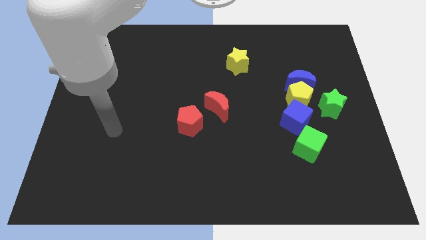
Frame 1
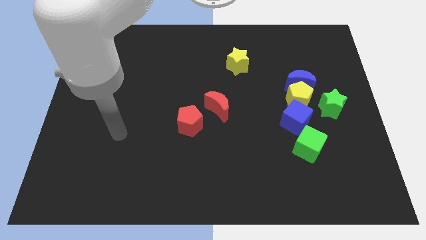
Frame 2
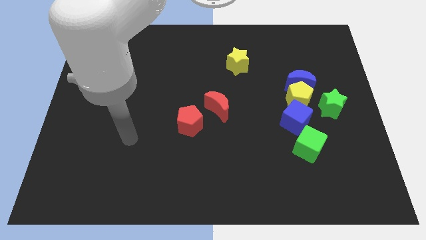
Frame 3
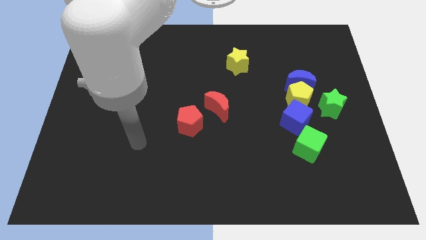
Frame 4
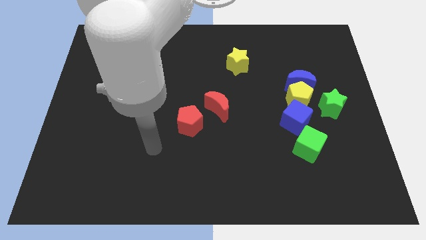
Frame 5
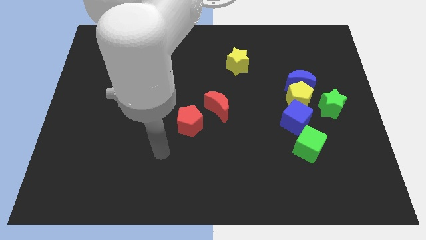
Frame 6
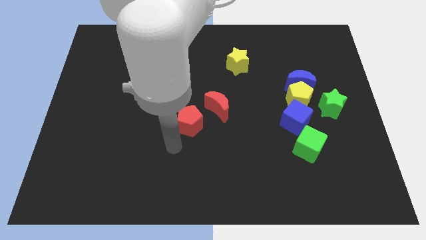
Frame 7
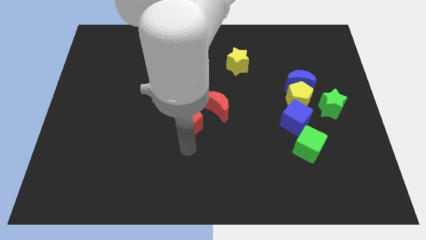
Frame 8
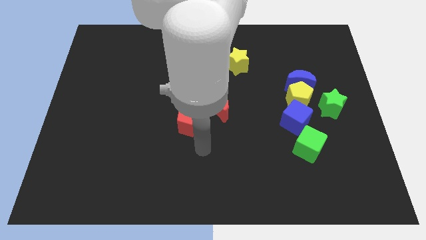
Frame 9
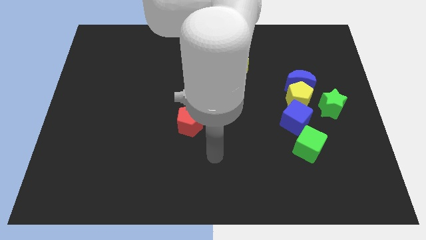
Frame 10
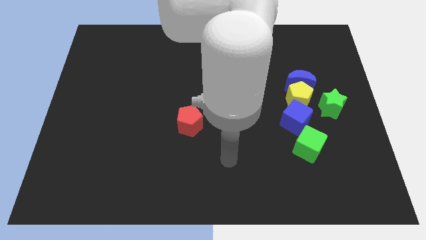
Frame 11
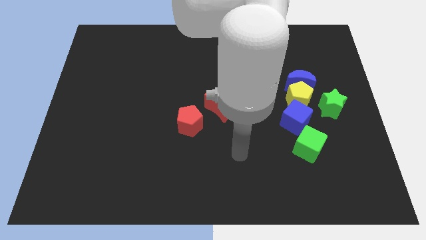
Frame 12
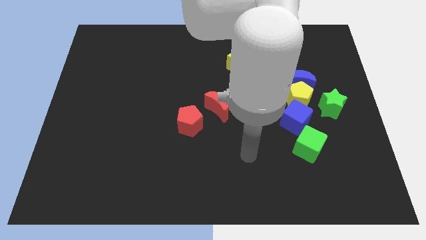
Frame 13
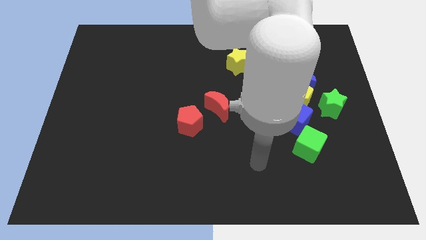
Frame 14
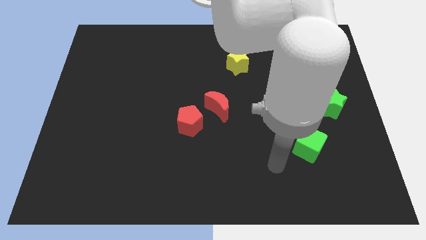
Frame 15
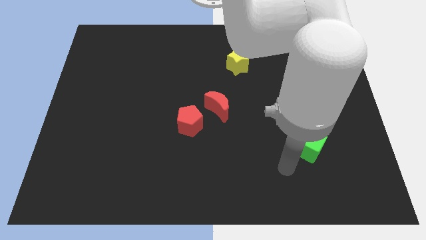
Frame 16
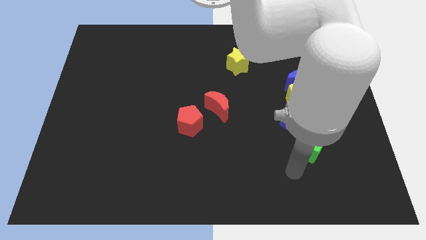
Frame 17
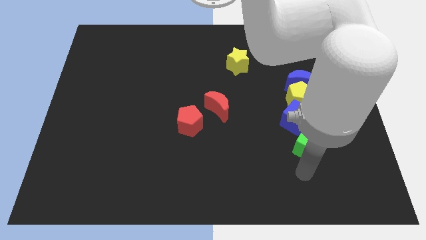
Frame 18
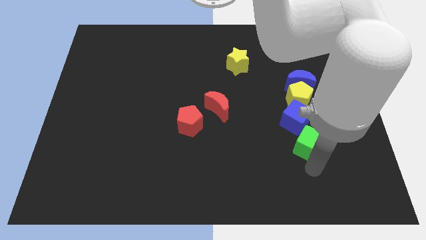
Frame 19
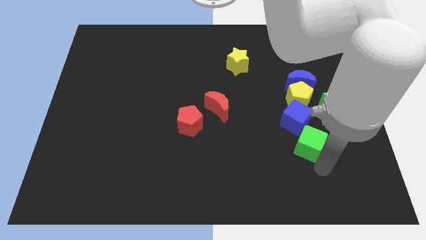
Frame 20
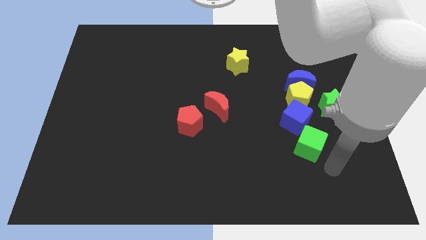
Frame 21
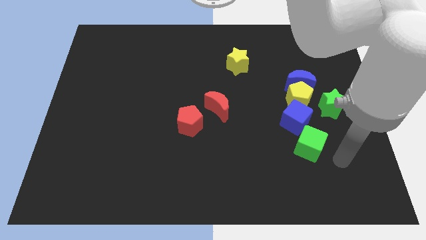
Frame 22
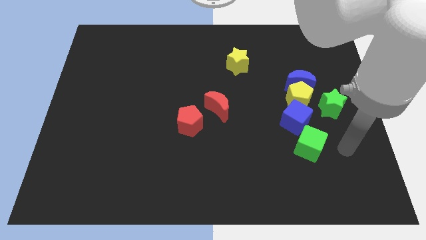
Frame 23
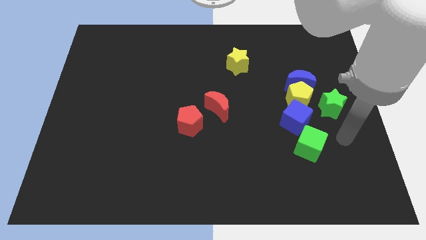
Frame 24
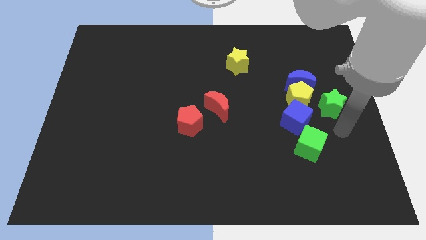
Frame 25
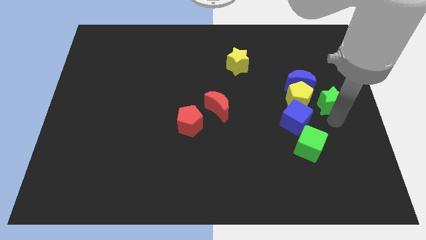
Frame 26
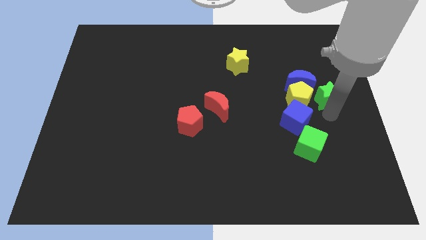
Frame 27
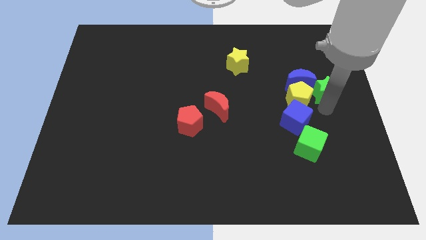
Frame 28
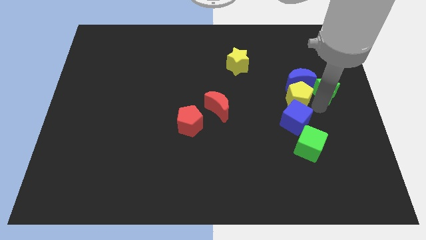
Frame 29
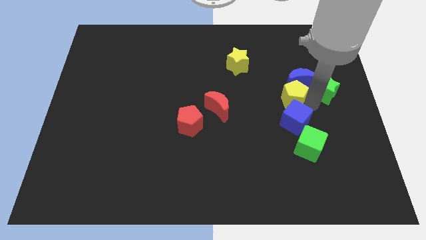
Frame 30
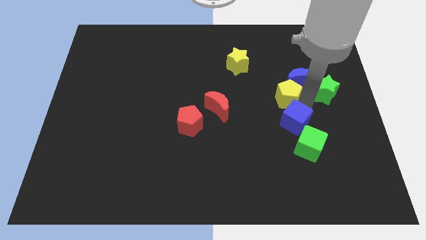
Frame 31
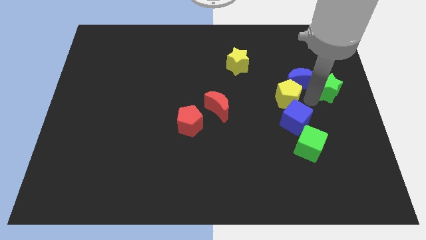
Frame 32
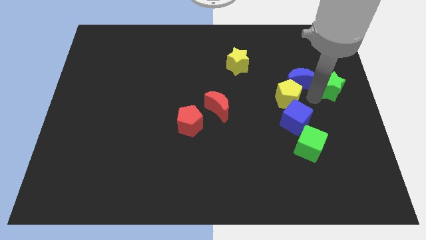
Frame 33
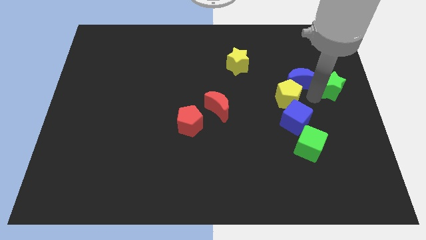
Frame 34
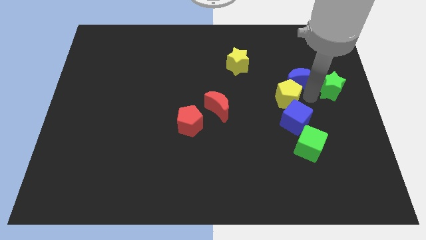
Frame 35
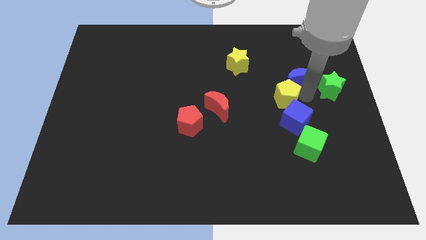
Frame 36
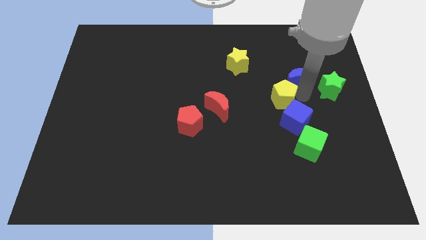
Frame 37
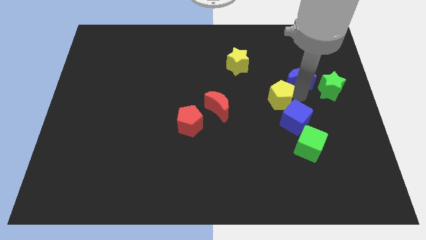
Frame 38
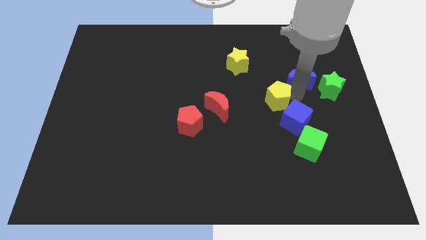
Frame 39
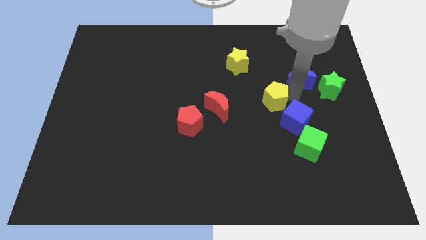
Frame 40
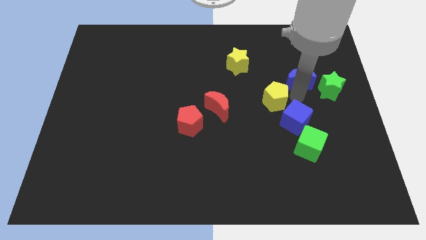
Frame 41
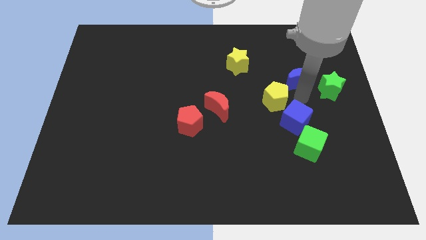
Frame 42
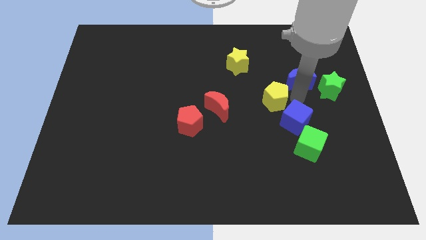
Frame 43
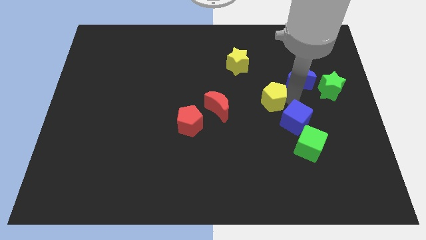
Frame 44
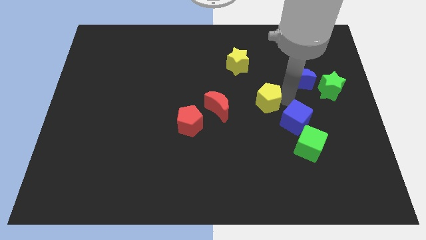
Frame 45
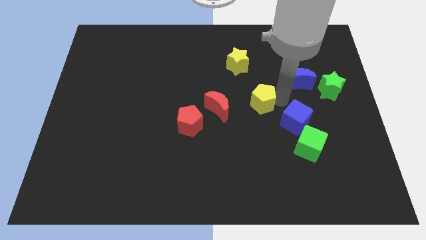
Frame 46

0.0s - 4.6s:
separate the yellow pentagon from the clump

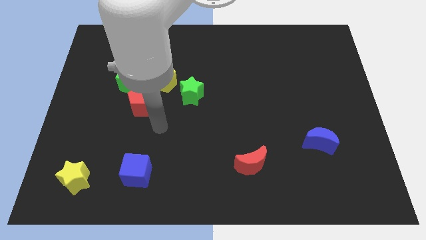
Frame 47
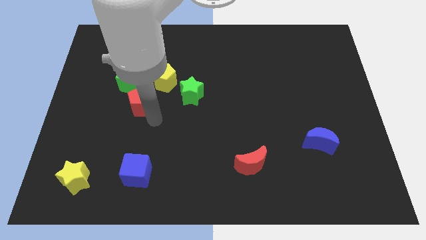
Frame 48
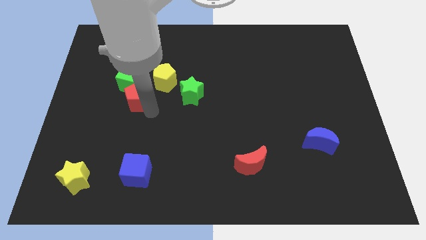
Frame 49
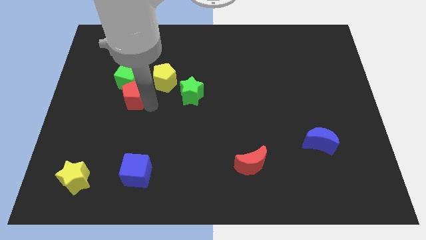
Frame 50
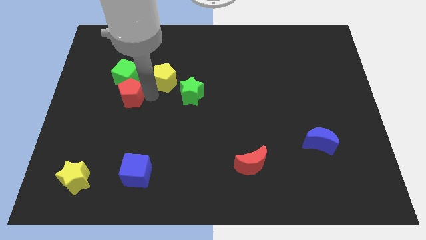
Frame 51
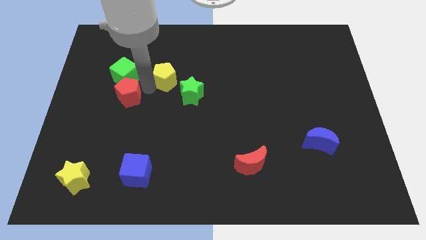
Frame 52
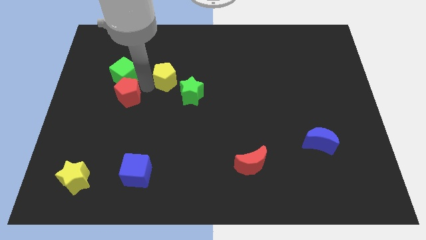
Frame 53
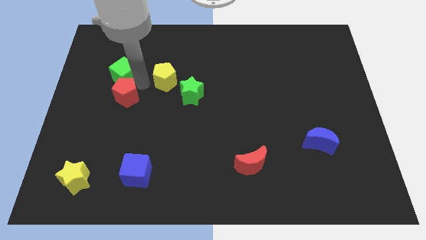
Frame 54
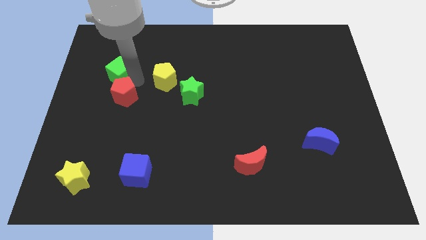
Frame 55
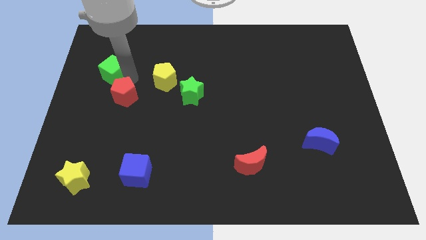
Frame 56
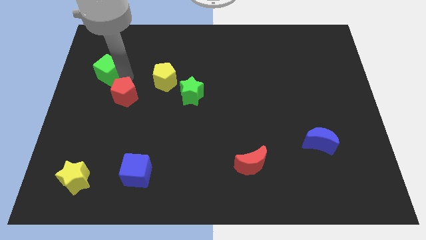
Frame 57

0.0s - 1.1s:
move the green cube away from the red pentagon and yellow pentagon

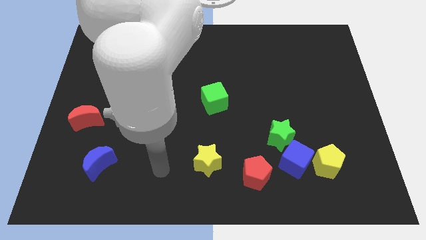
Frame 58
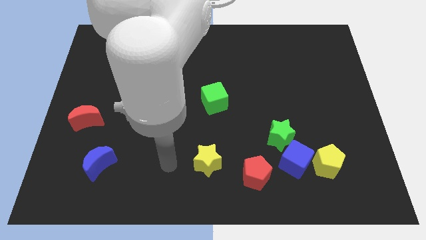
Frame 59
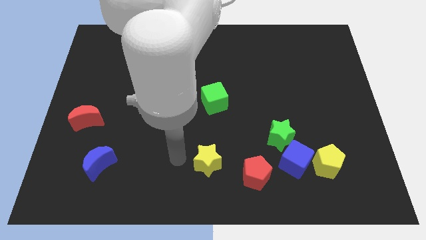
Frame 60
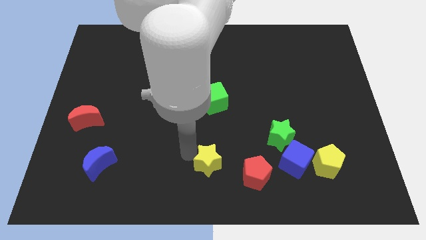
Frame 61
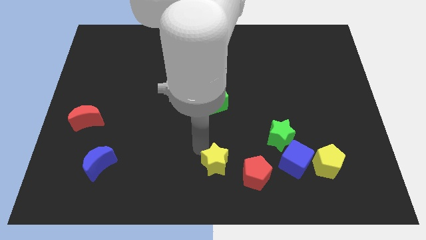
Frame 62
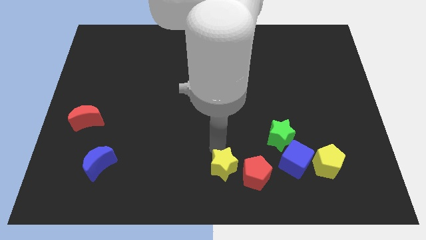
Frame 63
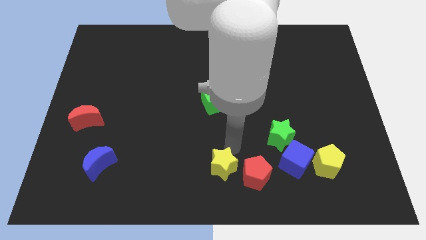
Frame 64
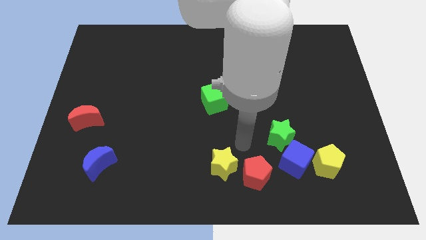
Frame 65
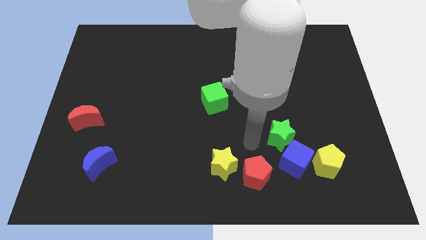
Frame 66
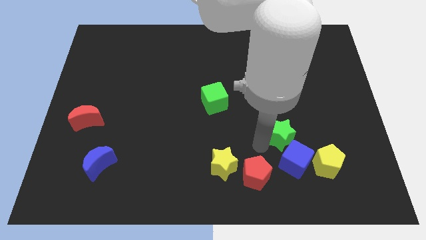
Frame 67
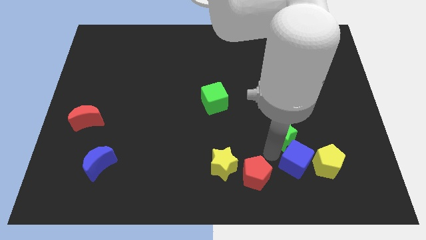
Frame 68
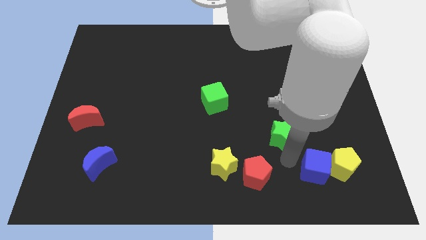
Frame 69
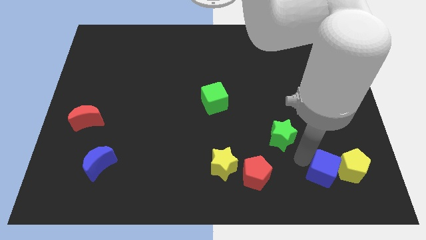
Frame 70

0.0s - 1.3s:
move the green star away from the blue cube

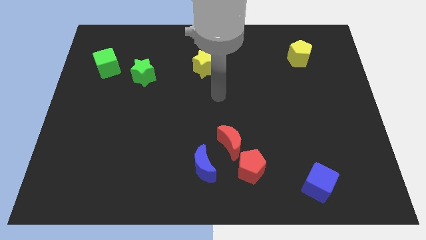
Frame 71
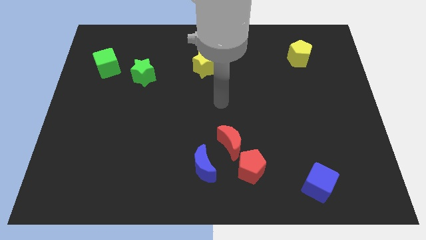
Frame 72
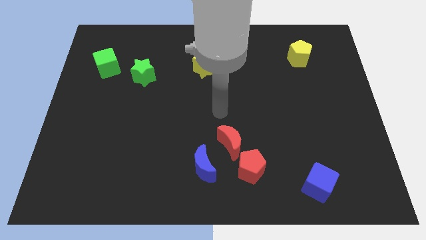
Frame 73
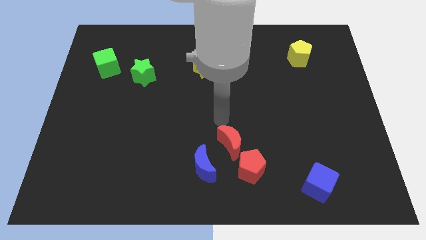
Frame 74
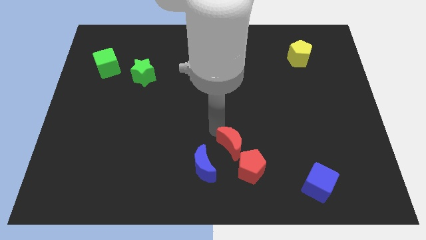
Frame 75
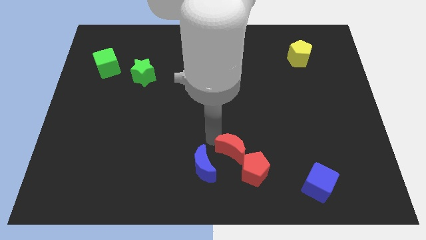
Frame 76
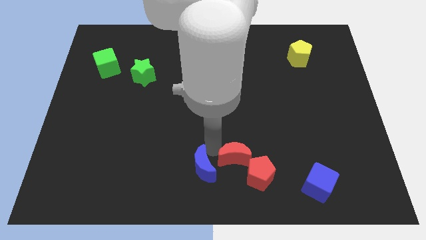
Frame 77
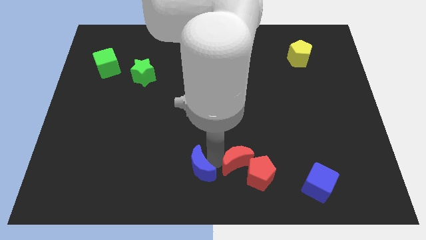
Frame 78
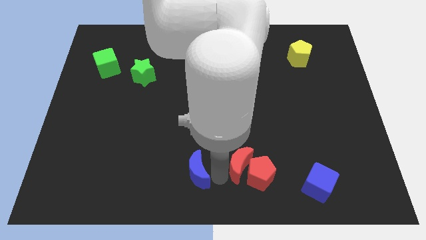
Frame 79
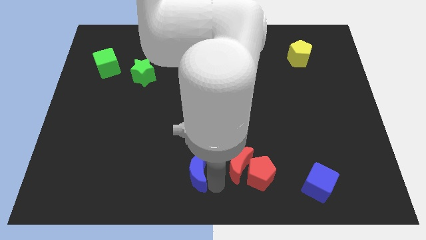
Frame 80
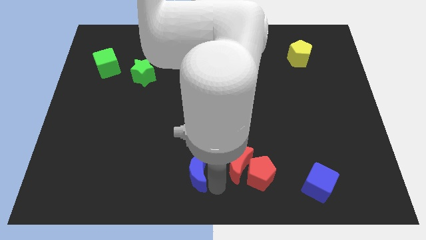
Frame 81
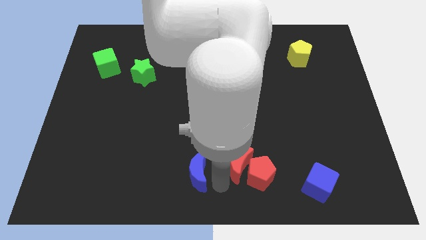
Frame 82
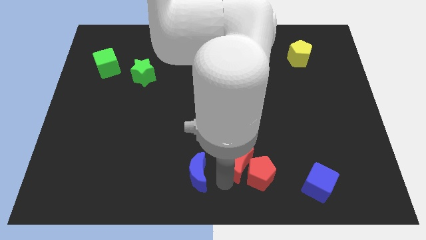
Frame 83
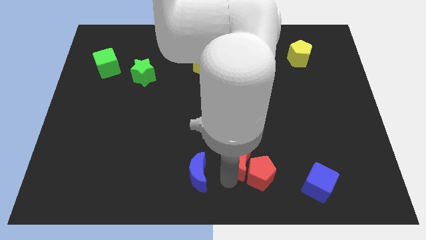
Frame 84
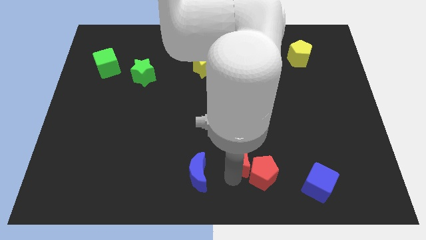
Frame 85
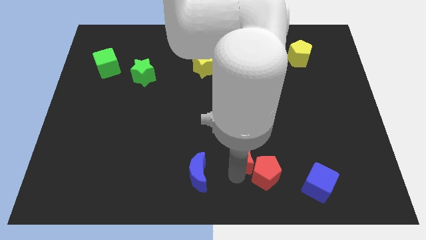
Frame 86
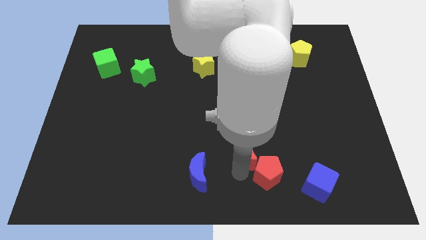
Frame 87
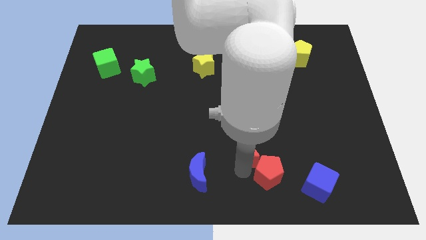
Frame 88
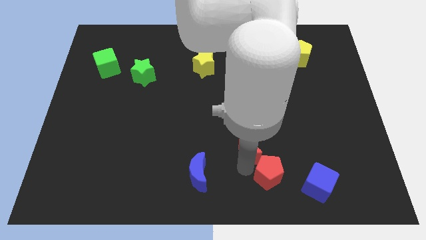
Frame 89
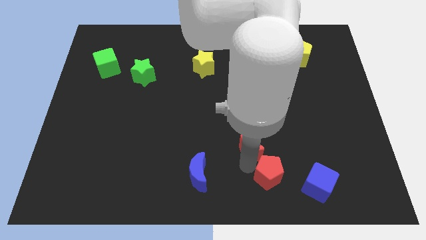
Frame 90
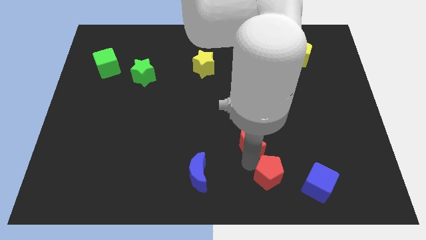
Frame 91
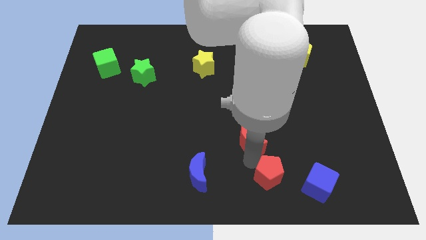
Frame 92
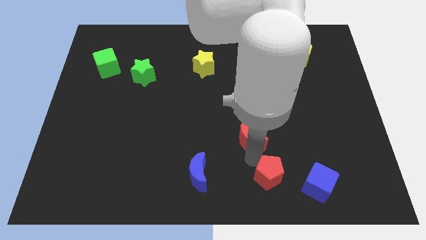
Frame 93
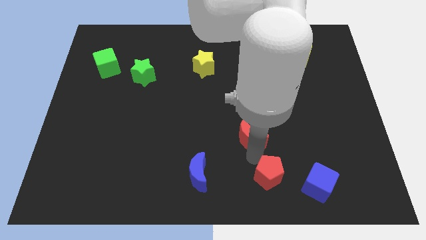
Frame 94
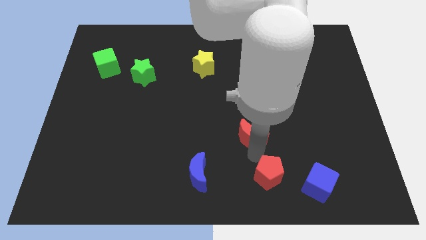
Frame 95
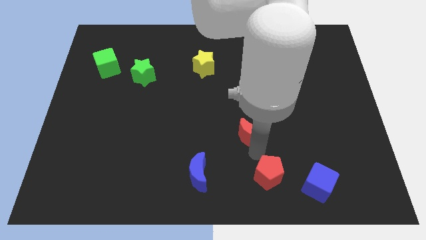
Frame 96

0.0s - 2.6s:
separate the red moon from the red pentagon and blue moon
